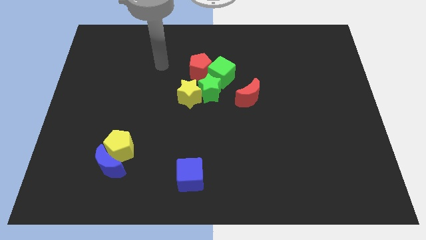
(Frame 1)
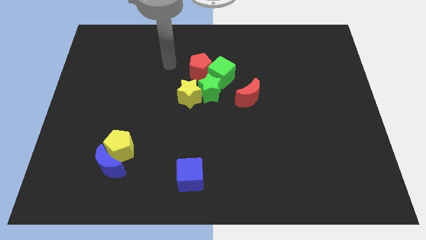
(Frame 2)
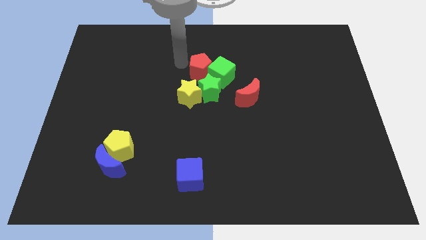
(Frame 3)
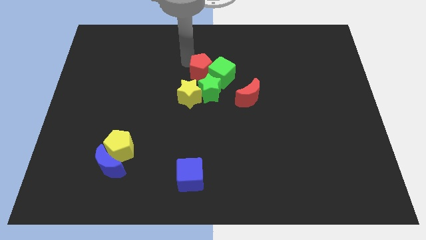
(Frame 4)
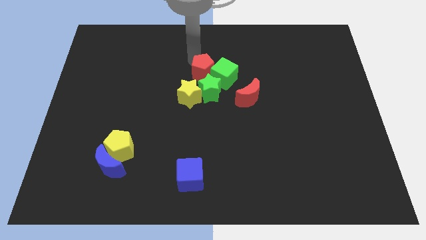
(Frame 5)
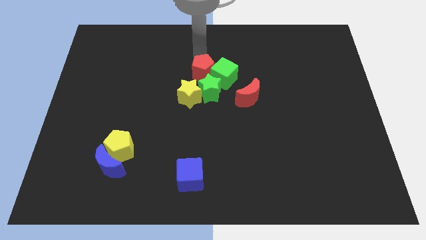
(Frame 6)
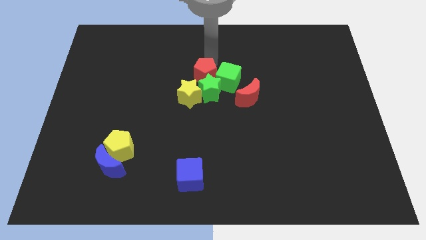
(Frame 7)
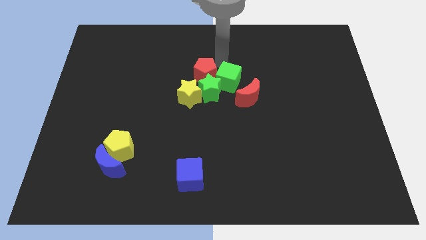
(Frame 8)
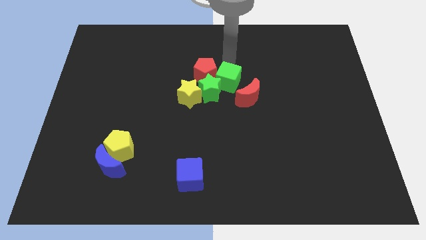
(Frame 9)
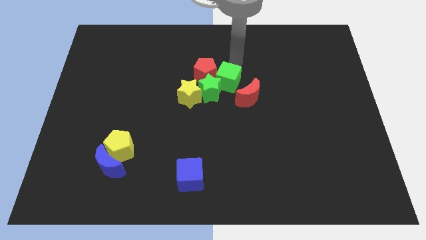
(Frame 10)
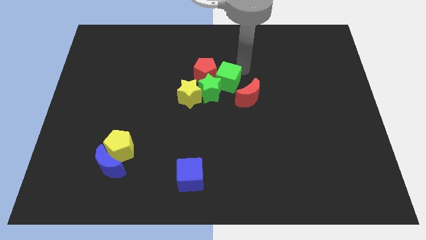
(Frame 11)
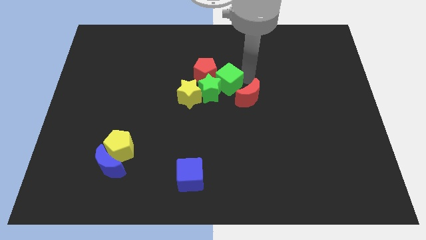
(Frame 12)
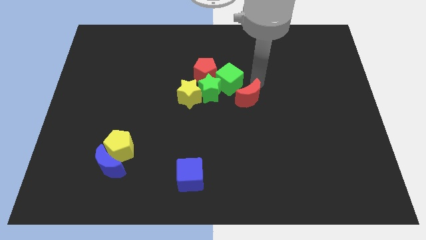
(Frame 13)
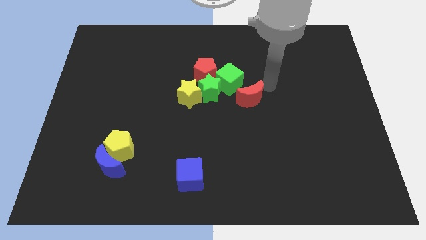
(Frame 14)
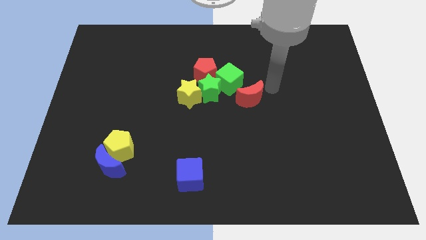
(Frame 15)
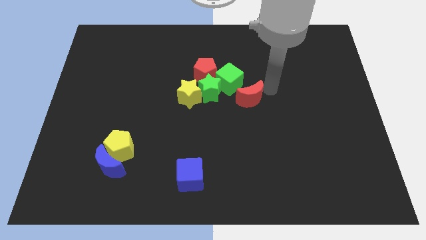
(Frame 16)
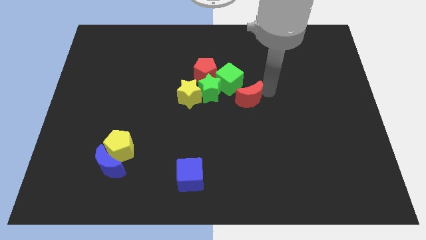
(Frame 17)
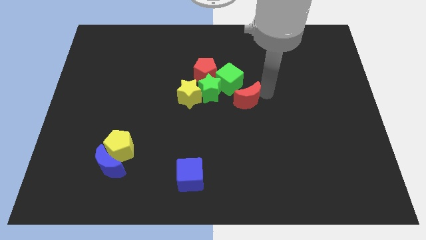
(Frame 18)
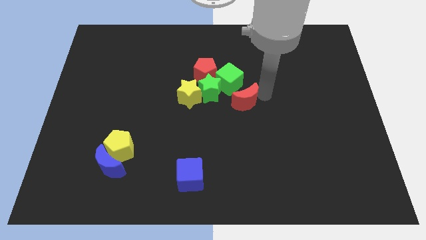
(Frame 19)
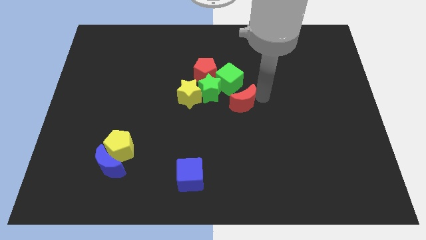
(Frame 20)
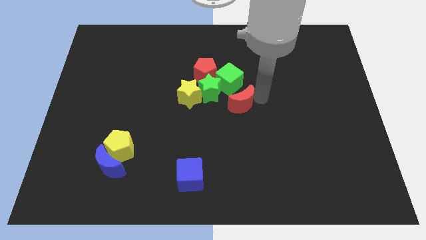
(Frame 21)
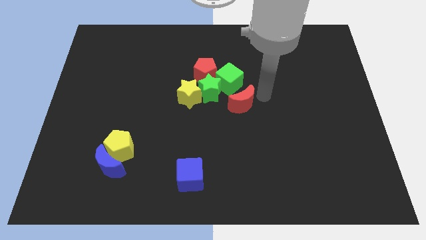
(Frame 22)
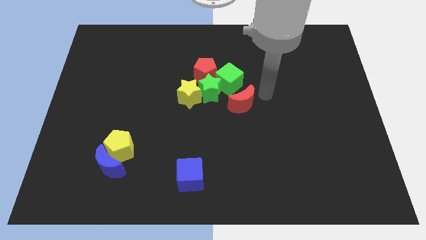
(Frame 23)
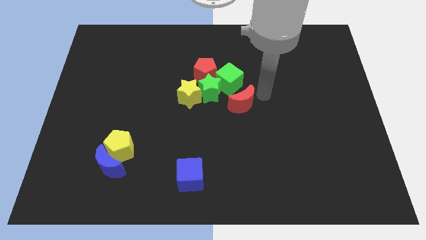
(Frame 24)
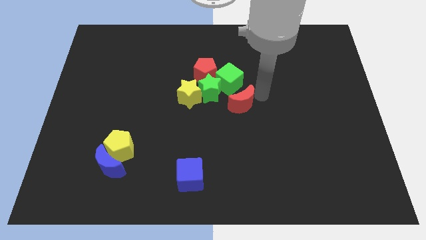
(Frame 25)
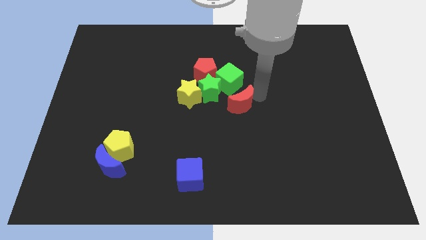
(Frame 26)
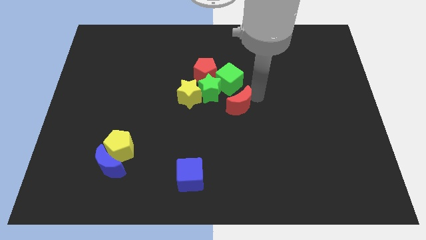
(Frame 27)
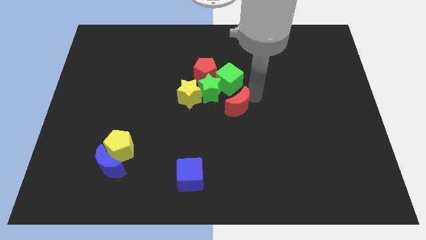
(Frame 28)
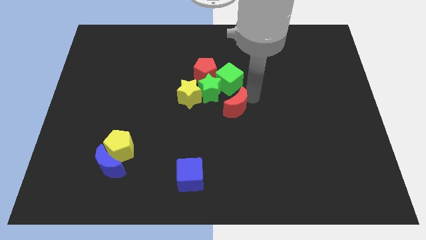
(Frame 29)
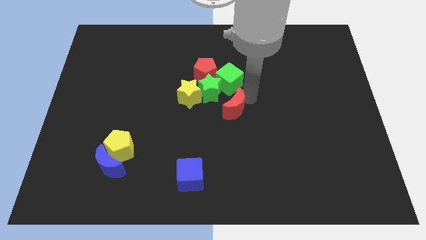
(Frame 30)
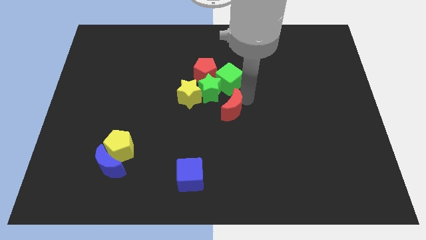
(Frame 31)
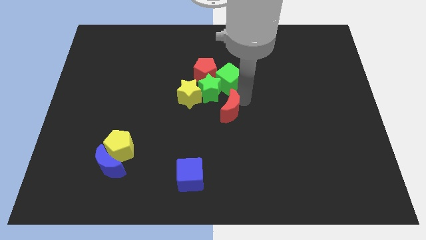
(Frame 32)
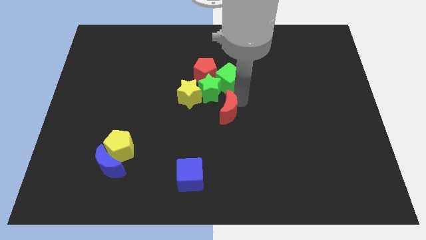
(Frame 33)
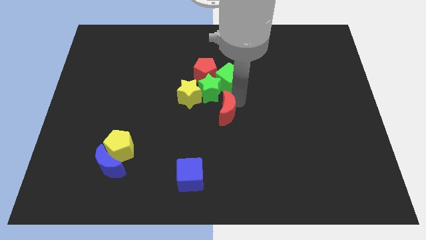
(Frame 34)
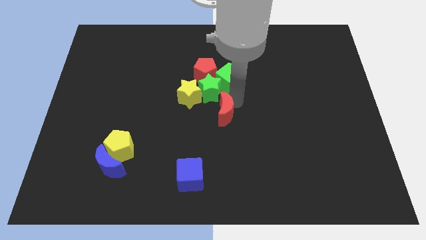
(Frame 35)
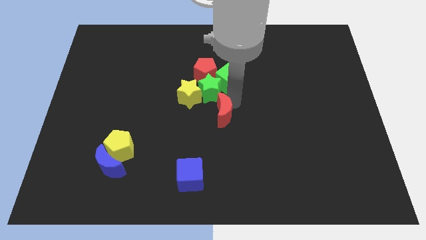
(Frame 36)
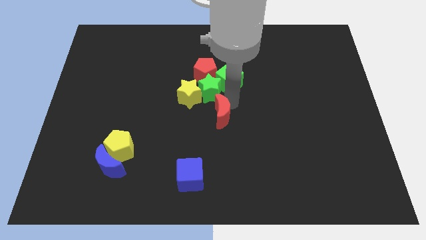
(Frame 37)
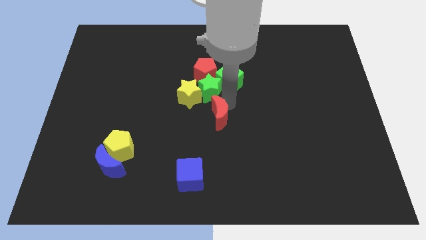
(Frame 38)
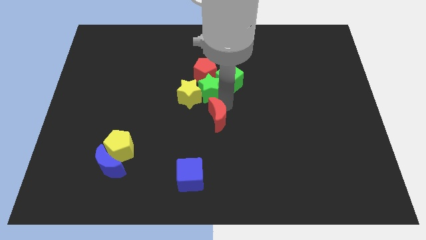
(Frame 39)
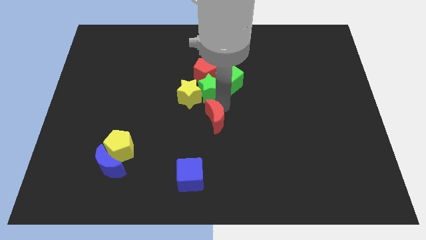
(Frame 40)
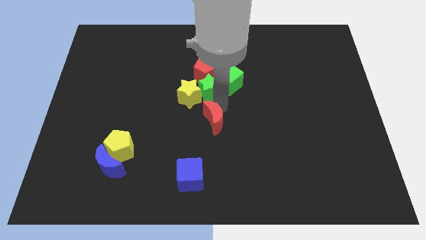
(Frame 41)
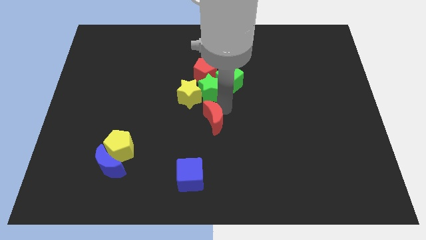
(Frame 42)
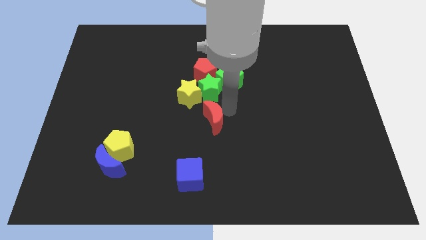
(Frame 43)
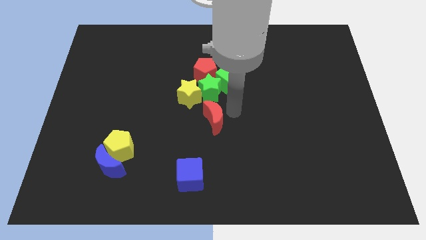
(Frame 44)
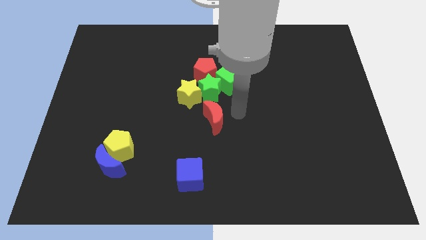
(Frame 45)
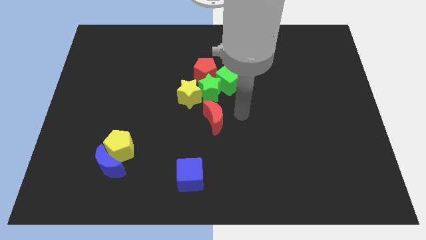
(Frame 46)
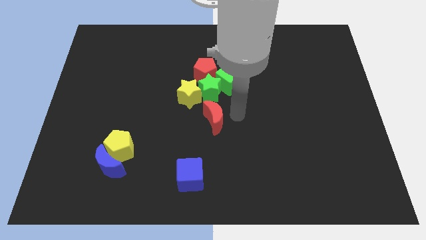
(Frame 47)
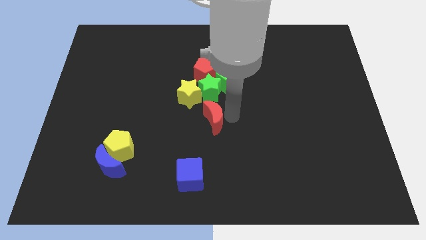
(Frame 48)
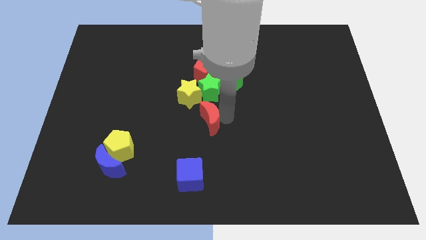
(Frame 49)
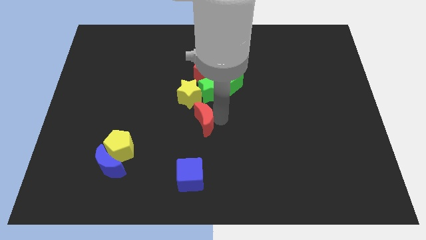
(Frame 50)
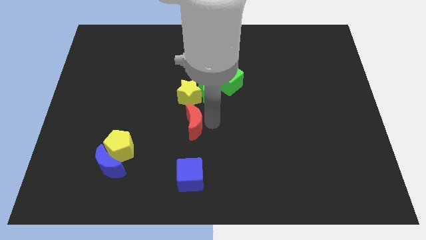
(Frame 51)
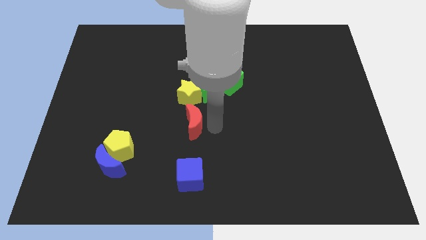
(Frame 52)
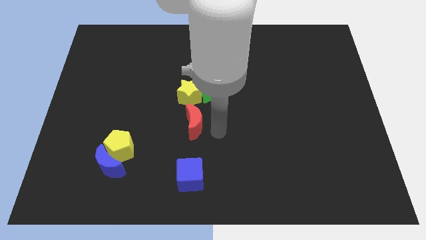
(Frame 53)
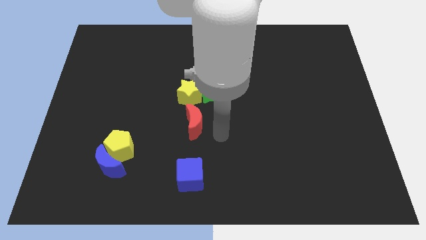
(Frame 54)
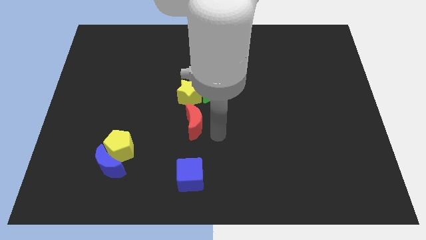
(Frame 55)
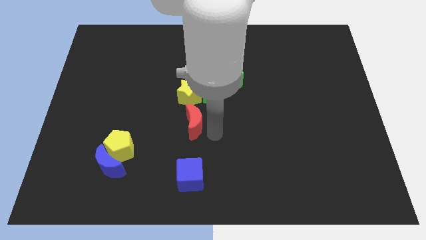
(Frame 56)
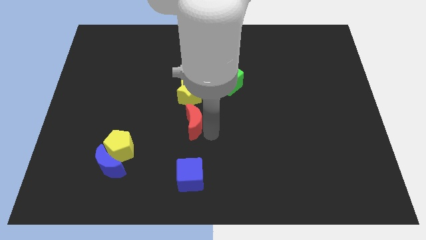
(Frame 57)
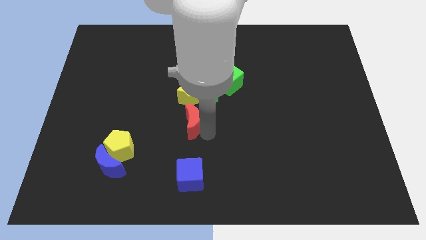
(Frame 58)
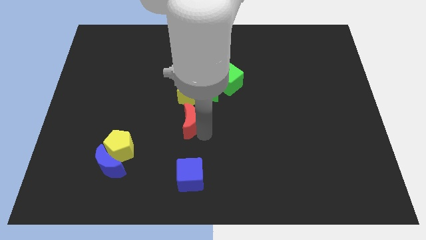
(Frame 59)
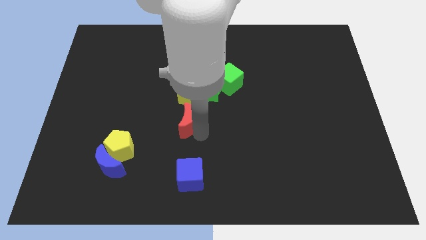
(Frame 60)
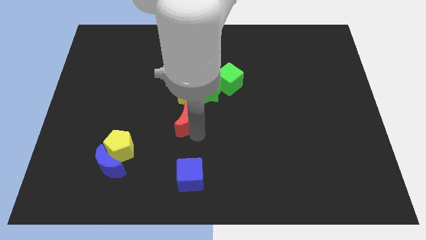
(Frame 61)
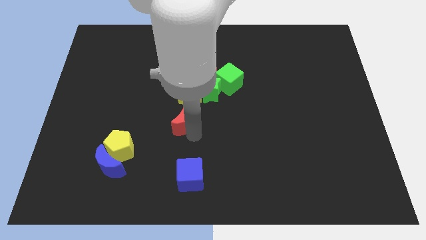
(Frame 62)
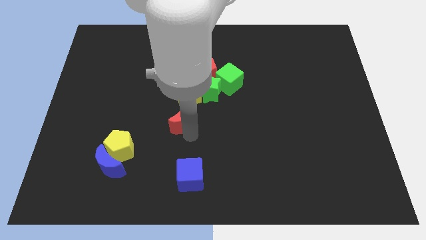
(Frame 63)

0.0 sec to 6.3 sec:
put the red moon diagonally down and to the left of the yellow star
